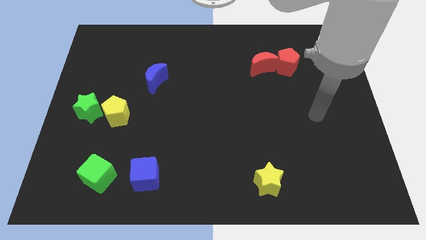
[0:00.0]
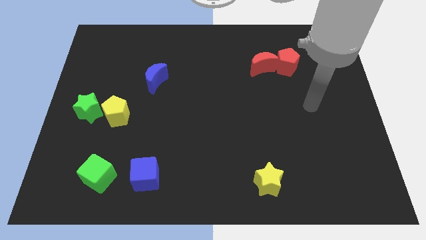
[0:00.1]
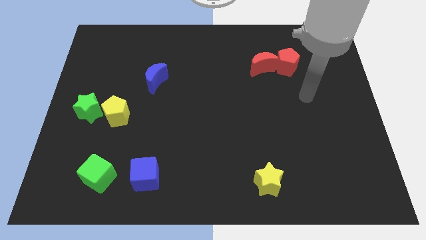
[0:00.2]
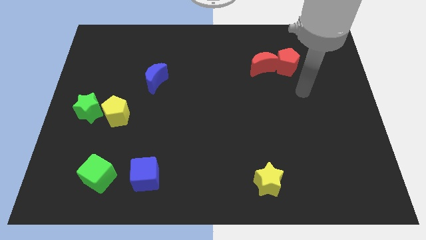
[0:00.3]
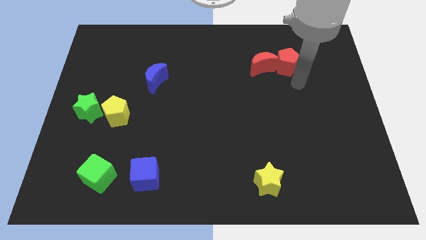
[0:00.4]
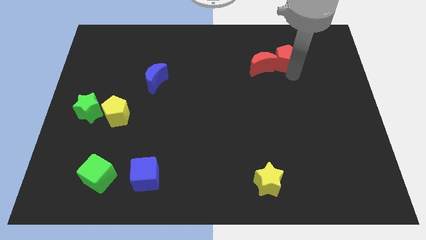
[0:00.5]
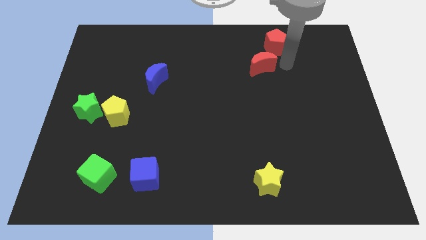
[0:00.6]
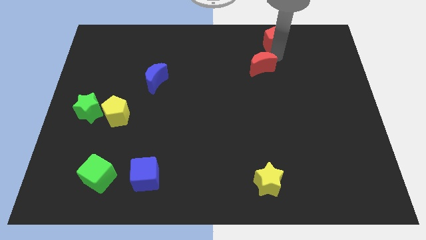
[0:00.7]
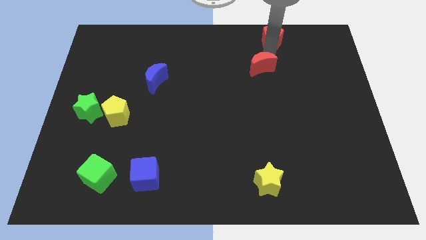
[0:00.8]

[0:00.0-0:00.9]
pull the red moon apart from the red pentagon

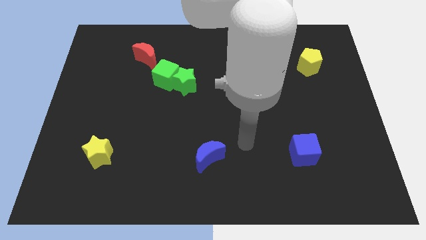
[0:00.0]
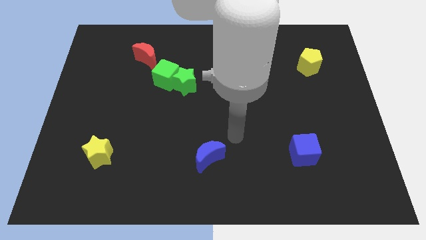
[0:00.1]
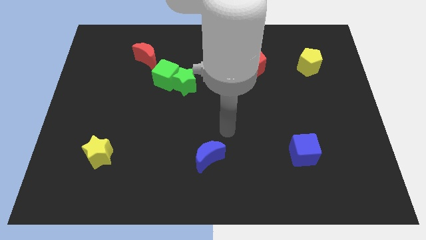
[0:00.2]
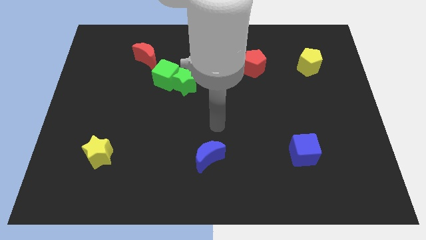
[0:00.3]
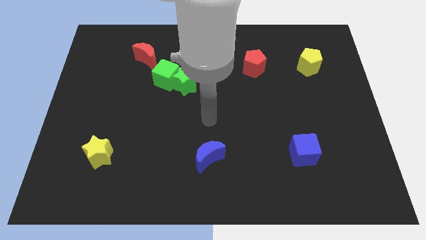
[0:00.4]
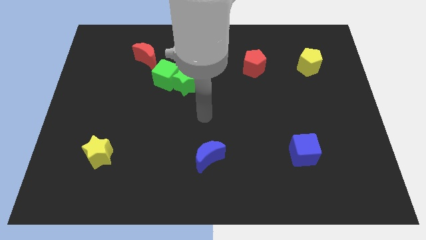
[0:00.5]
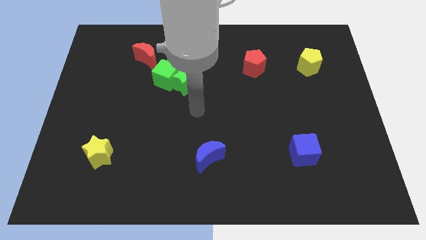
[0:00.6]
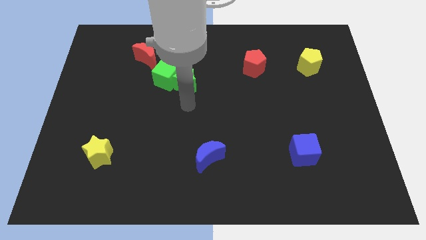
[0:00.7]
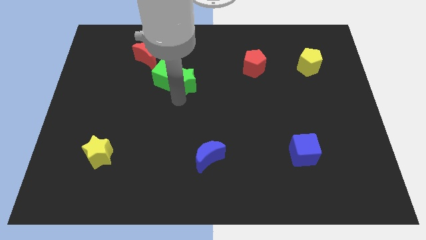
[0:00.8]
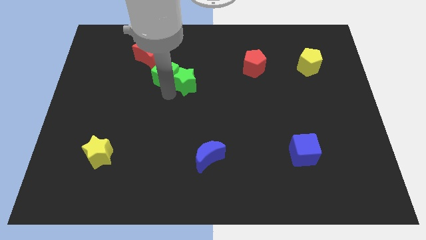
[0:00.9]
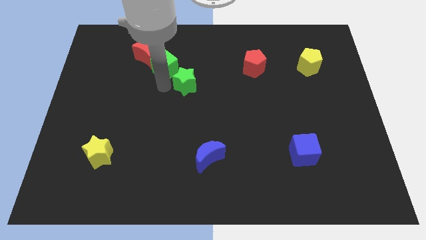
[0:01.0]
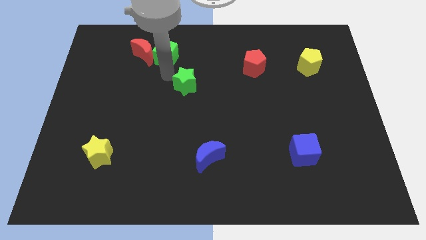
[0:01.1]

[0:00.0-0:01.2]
move the green star away from the green cube

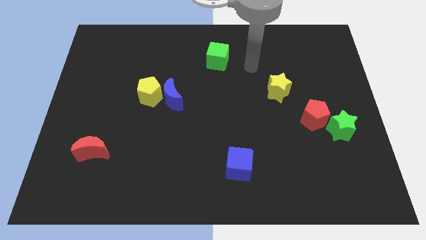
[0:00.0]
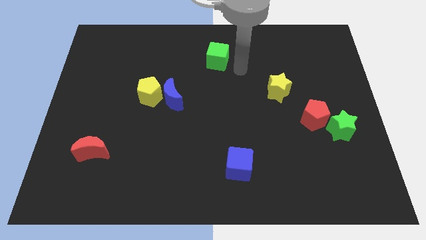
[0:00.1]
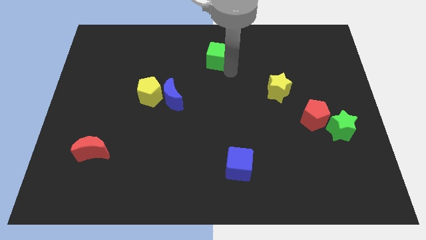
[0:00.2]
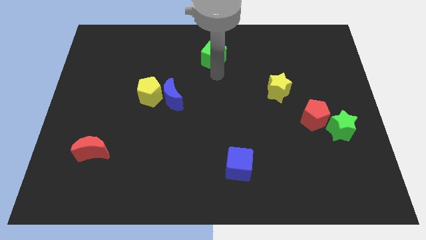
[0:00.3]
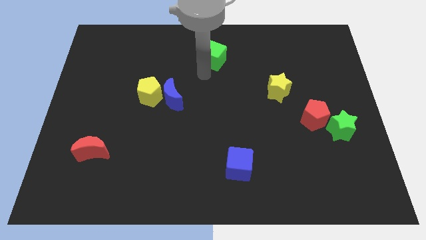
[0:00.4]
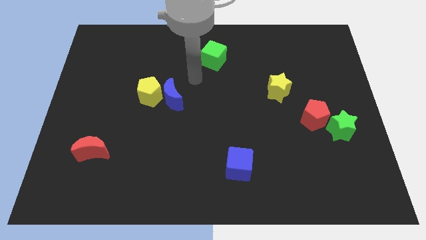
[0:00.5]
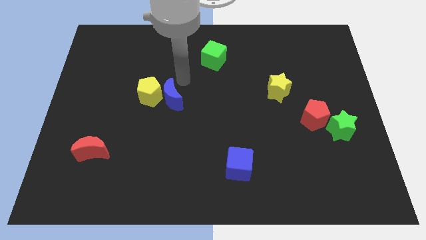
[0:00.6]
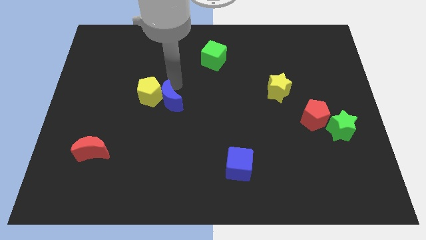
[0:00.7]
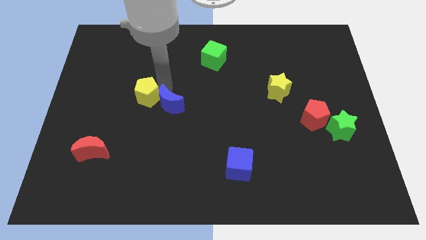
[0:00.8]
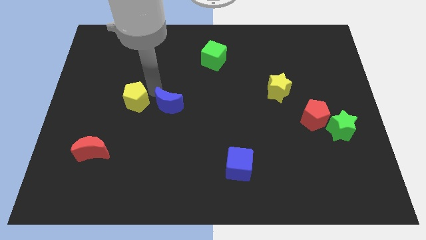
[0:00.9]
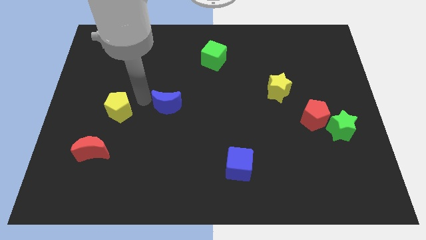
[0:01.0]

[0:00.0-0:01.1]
pull the blue moon apart from the yellow pentagon

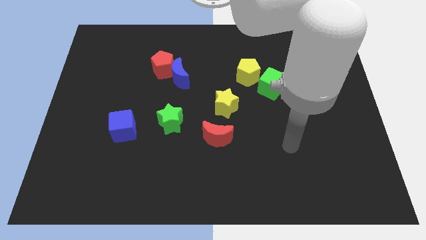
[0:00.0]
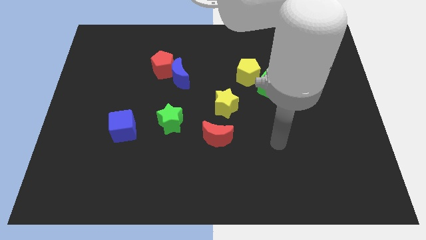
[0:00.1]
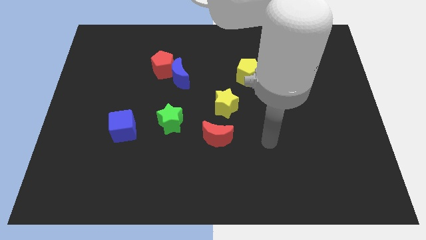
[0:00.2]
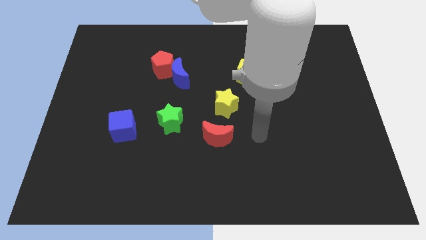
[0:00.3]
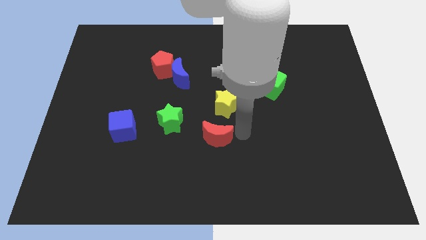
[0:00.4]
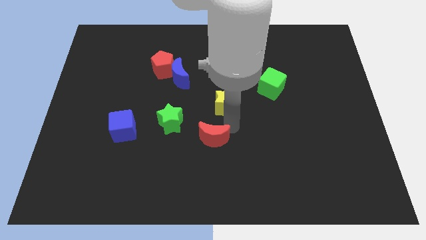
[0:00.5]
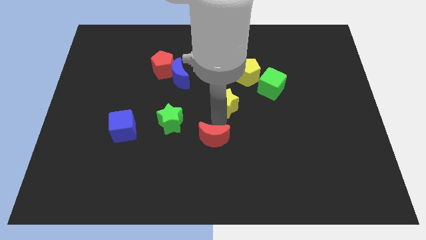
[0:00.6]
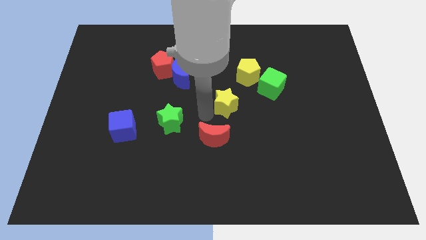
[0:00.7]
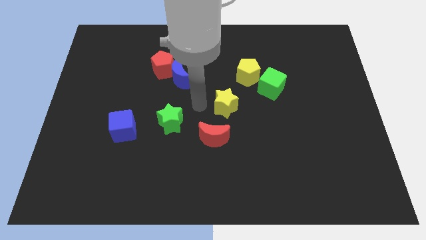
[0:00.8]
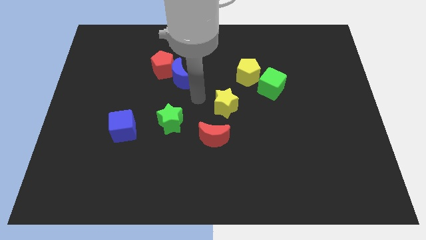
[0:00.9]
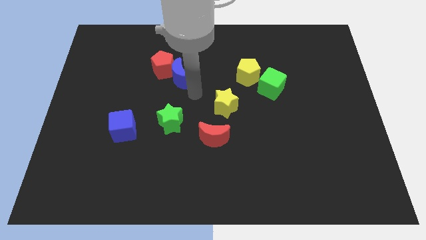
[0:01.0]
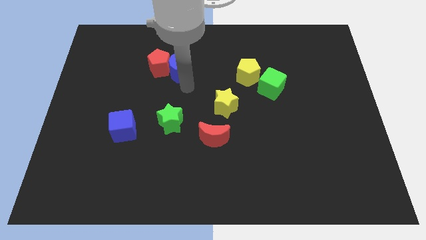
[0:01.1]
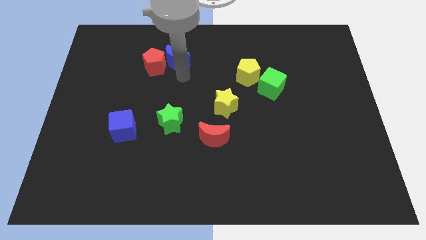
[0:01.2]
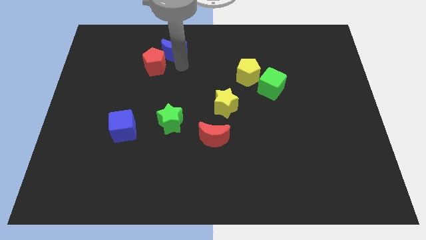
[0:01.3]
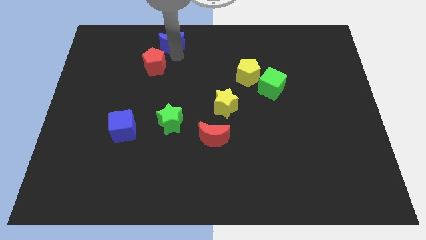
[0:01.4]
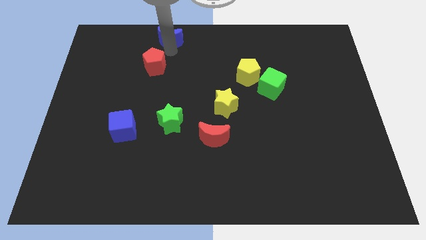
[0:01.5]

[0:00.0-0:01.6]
separate the red pentagon from the blue moon

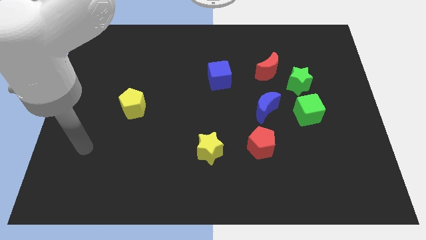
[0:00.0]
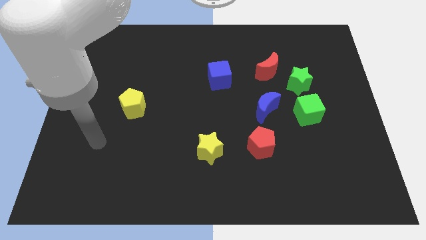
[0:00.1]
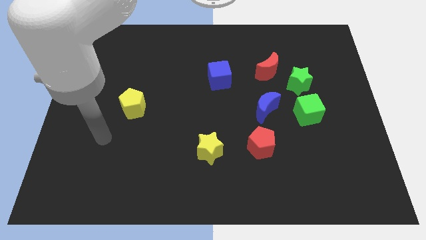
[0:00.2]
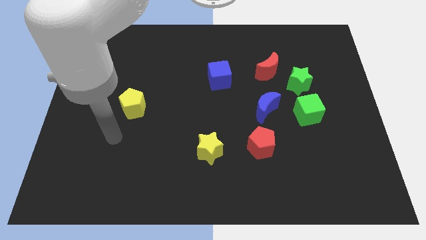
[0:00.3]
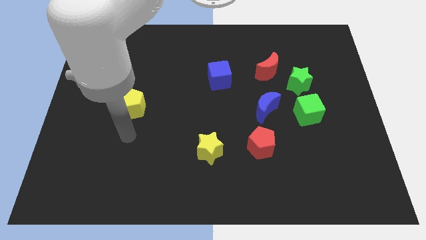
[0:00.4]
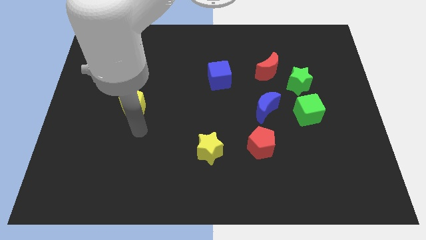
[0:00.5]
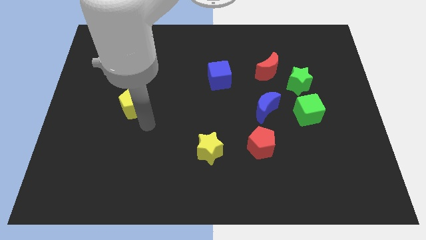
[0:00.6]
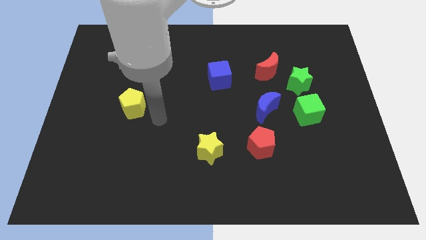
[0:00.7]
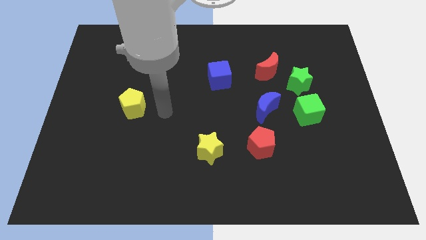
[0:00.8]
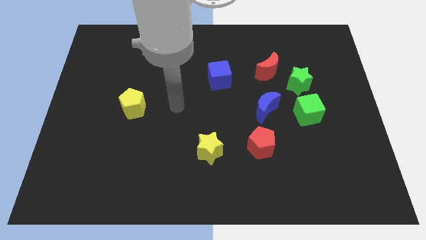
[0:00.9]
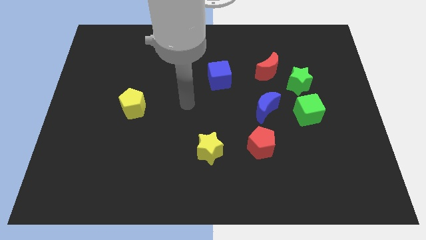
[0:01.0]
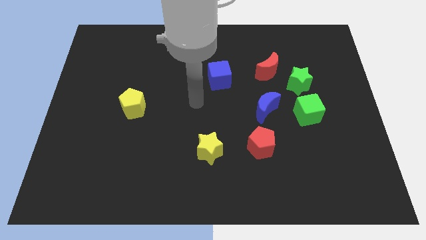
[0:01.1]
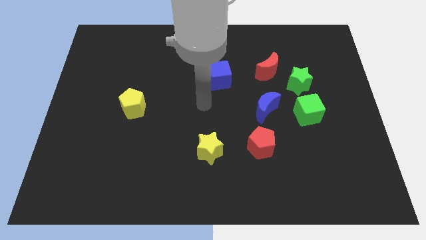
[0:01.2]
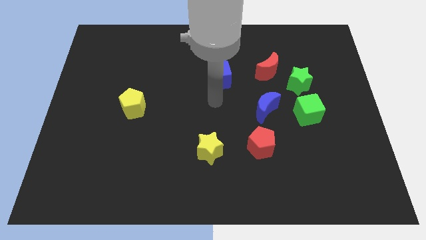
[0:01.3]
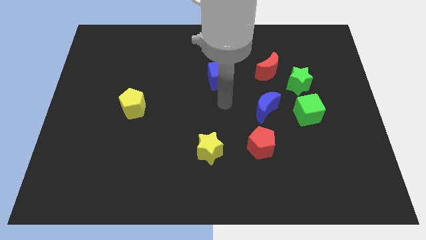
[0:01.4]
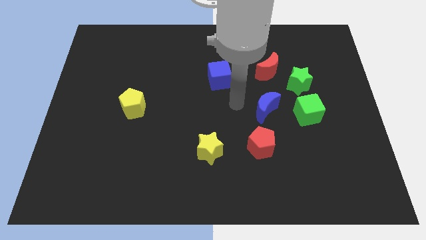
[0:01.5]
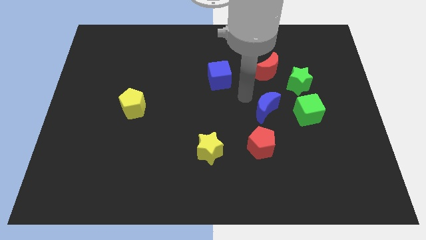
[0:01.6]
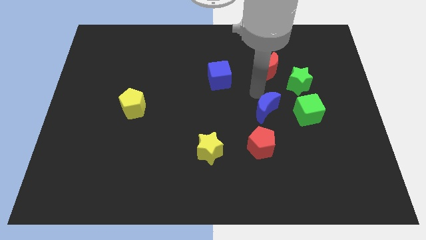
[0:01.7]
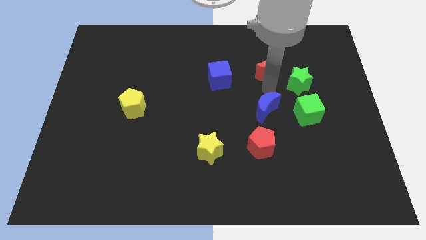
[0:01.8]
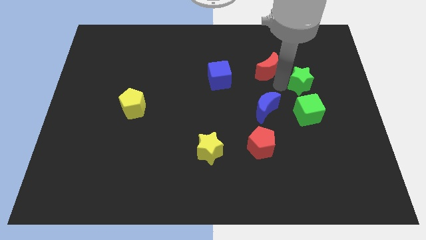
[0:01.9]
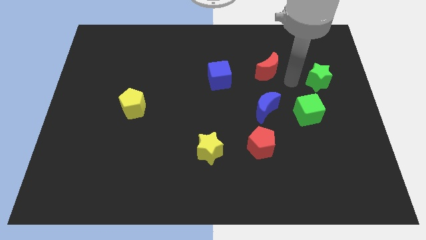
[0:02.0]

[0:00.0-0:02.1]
separate the red moon from the green star

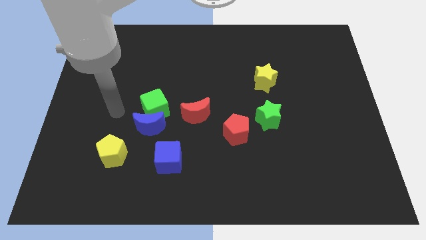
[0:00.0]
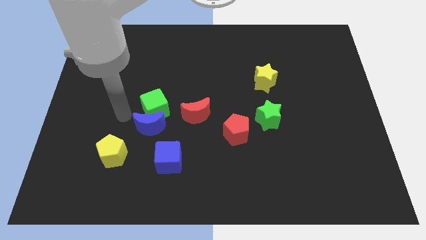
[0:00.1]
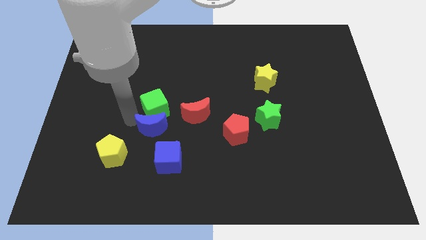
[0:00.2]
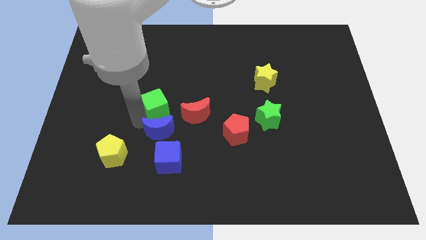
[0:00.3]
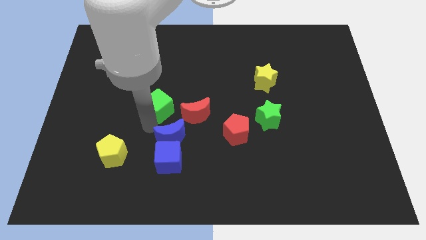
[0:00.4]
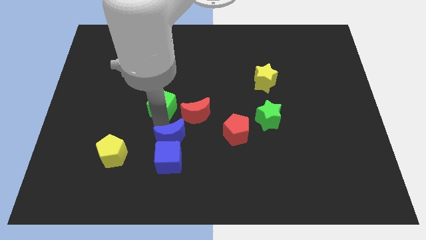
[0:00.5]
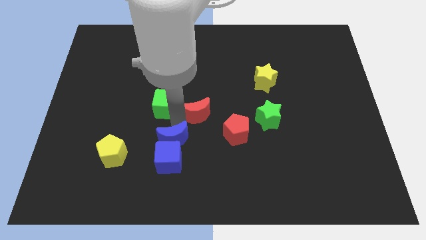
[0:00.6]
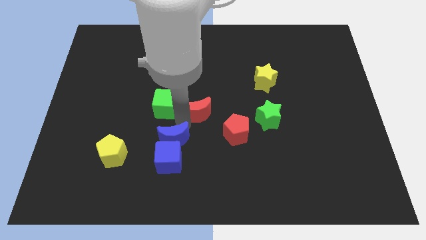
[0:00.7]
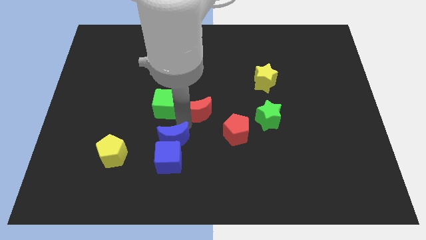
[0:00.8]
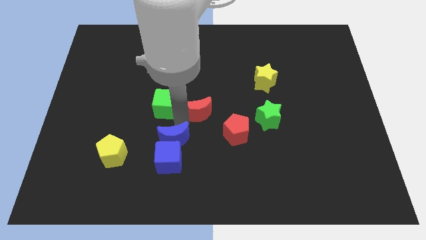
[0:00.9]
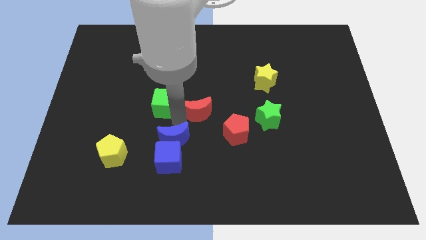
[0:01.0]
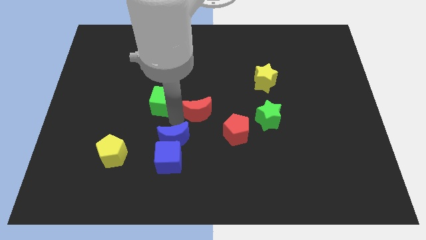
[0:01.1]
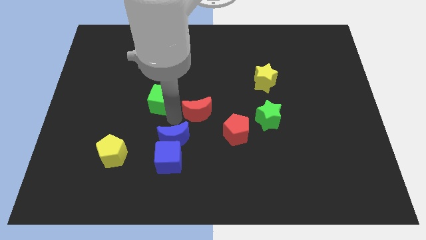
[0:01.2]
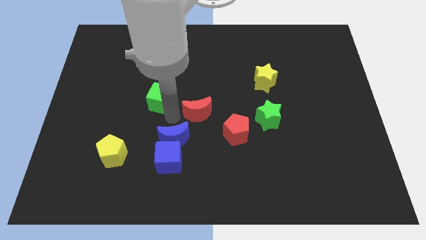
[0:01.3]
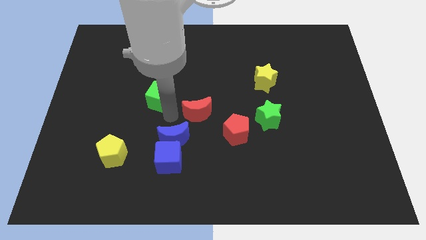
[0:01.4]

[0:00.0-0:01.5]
pull the green cube apart from the blue moon and red moon

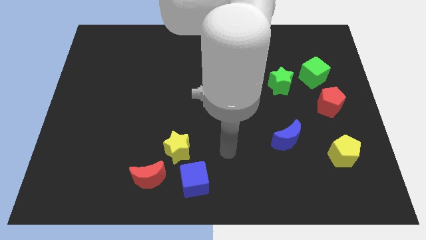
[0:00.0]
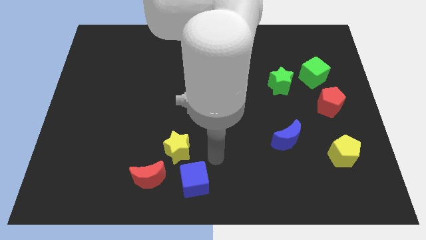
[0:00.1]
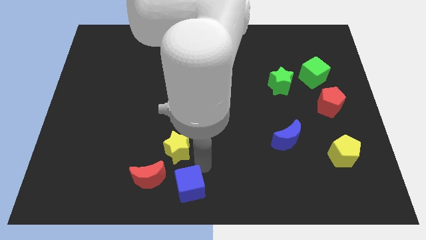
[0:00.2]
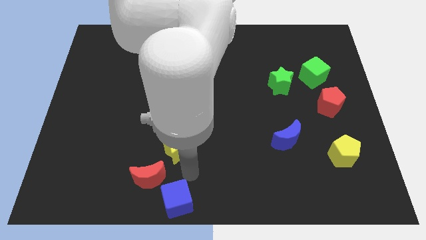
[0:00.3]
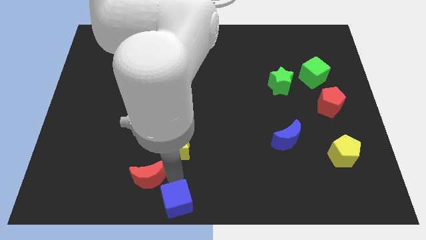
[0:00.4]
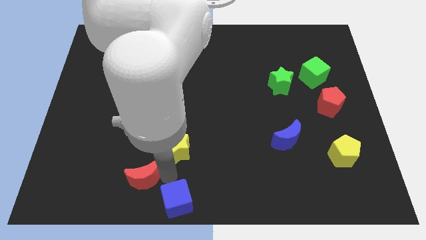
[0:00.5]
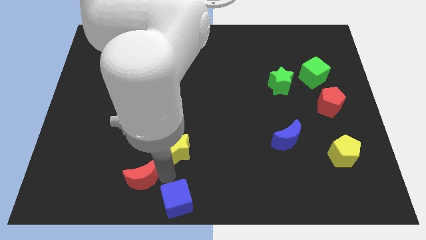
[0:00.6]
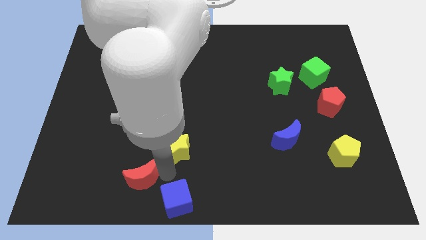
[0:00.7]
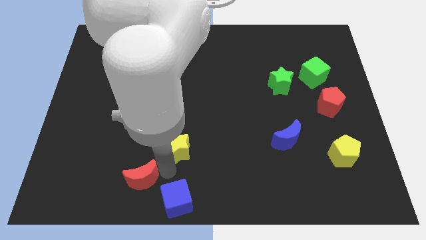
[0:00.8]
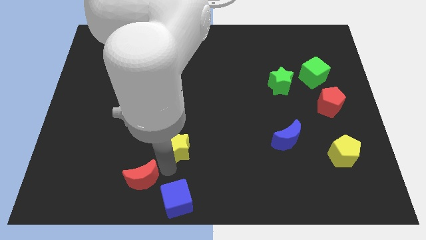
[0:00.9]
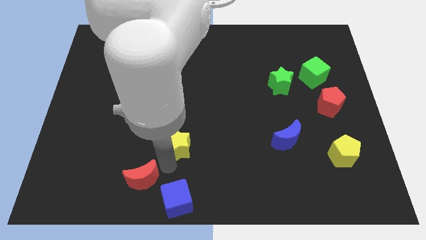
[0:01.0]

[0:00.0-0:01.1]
pull the yellow star apart from the blue cube and red moon
